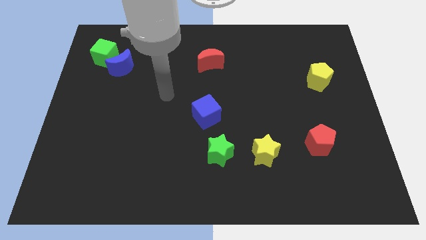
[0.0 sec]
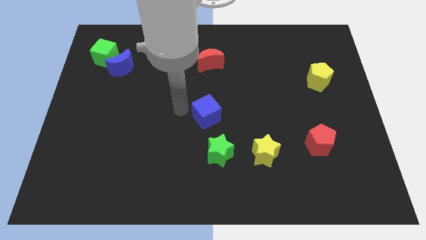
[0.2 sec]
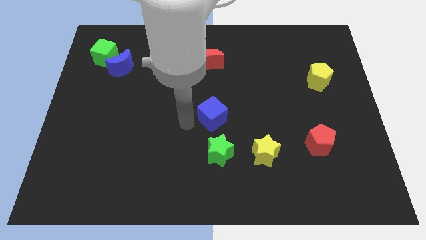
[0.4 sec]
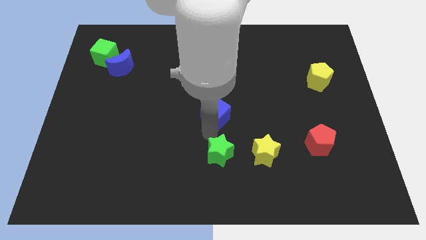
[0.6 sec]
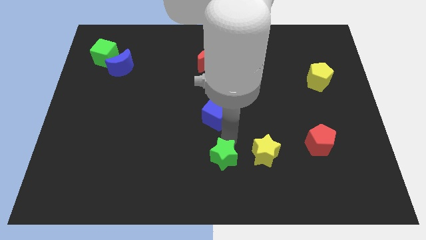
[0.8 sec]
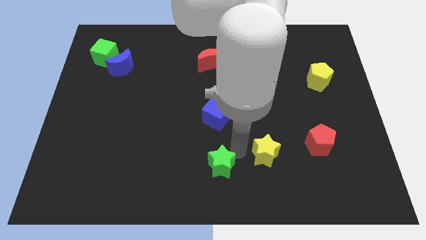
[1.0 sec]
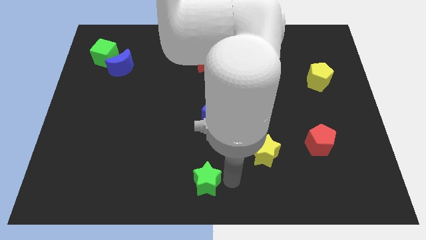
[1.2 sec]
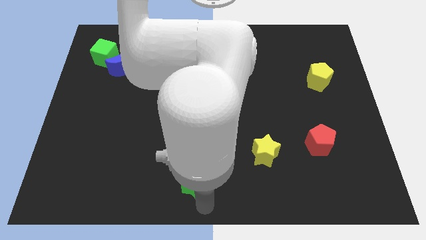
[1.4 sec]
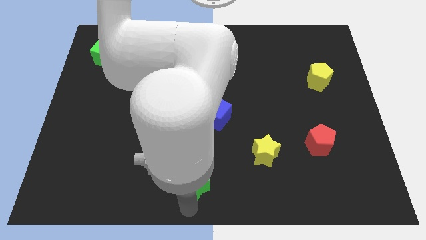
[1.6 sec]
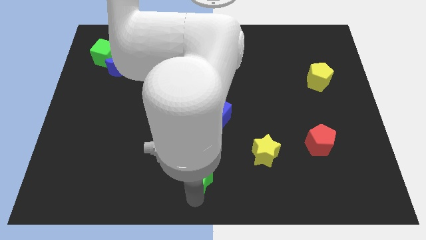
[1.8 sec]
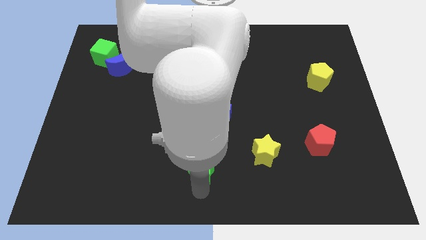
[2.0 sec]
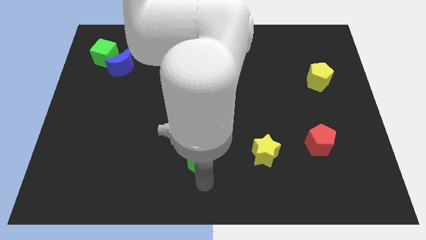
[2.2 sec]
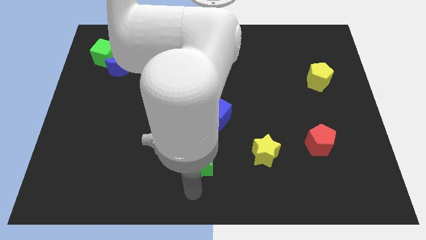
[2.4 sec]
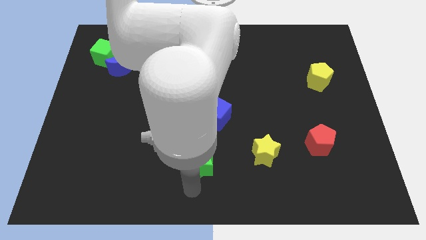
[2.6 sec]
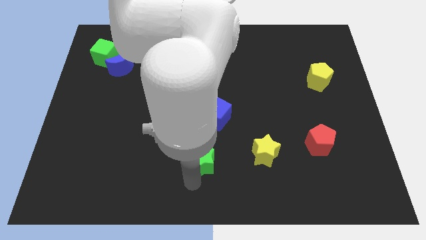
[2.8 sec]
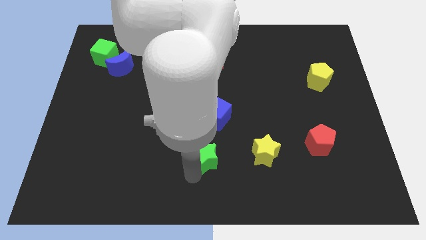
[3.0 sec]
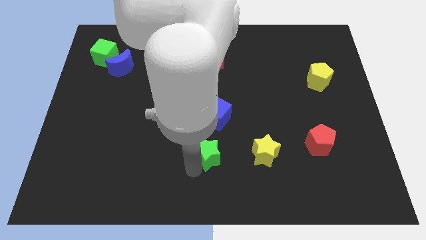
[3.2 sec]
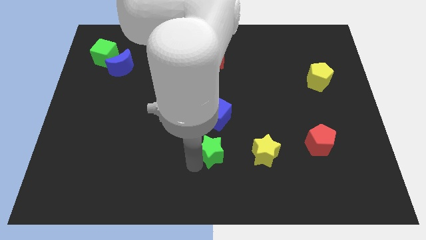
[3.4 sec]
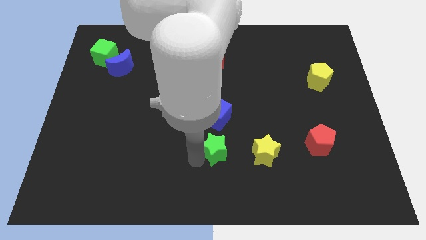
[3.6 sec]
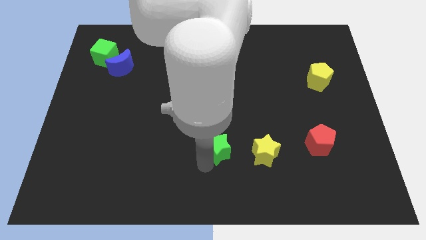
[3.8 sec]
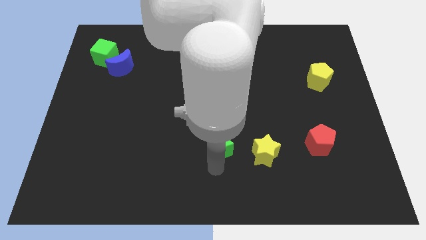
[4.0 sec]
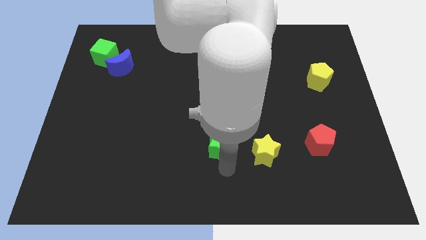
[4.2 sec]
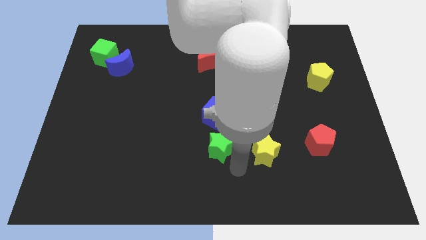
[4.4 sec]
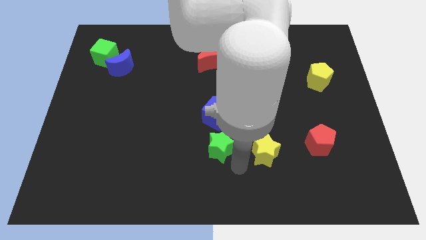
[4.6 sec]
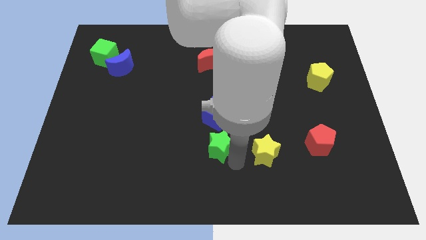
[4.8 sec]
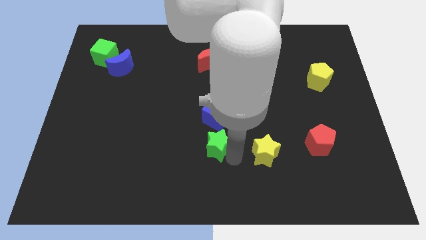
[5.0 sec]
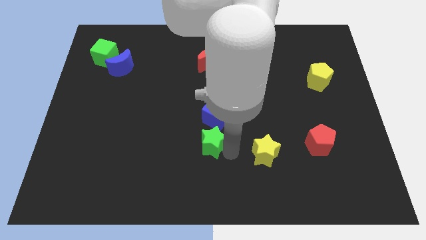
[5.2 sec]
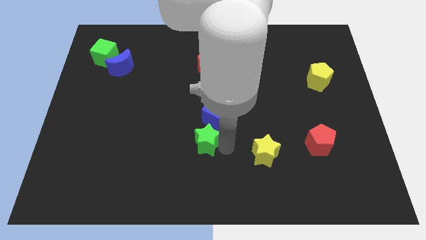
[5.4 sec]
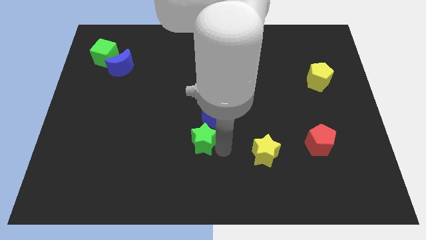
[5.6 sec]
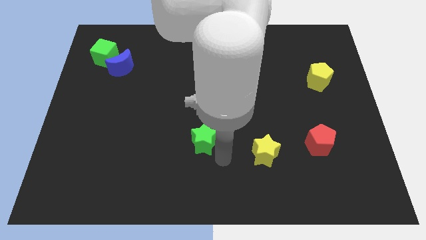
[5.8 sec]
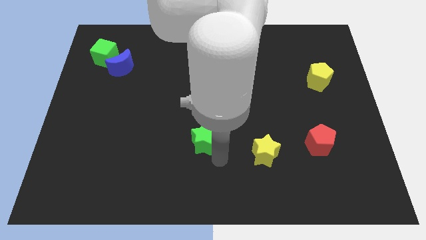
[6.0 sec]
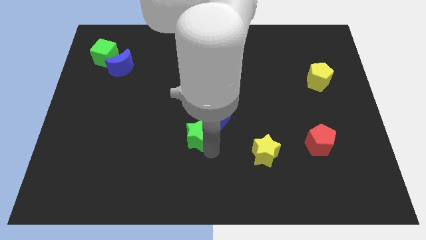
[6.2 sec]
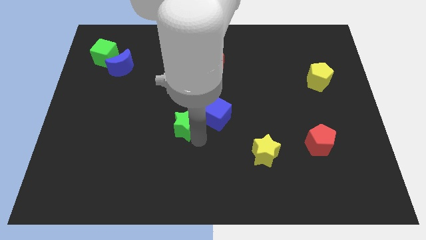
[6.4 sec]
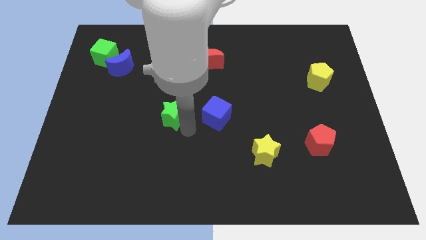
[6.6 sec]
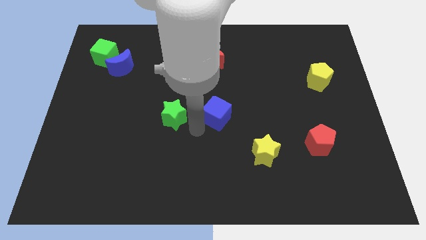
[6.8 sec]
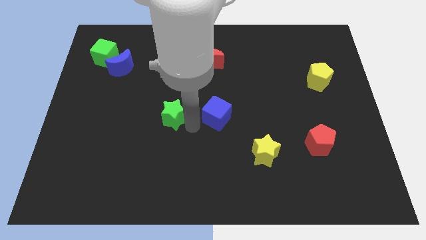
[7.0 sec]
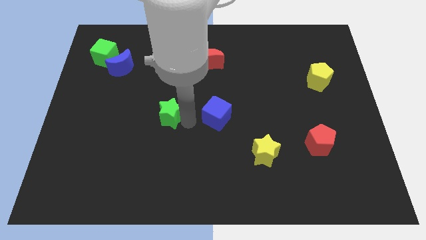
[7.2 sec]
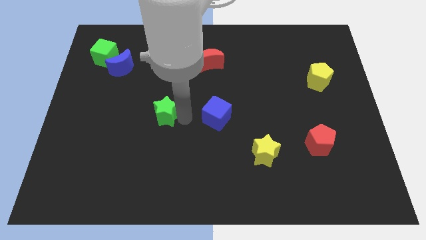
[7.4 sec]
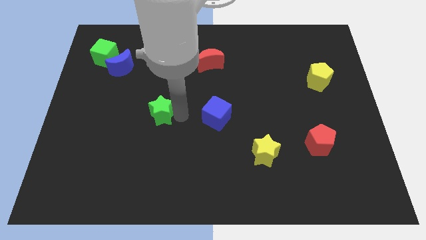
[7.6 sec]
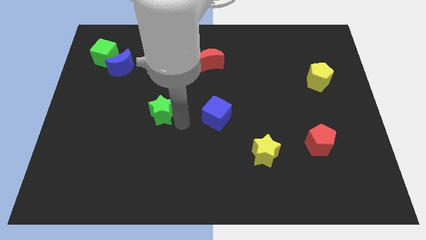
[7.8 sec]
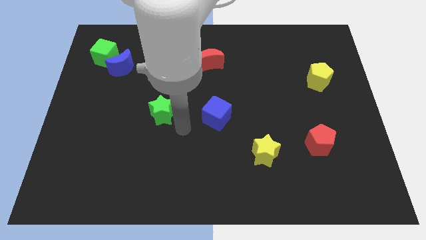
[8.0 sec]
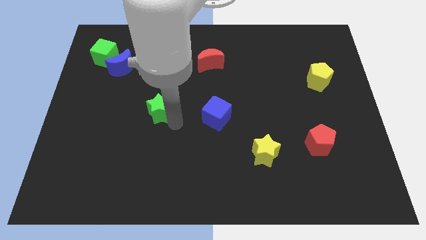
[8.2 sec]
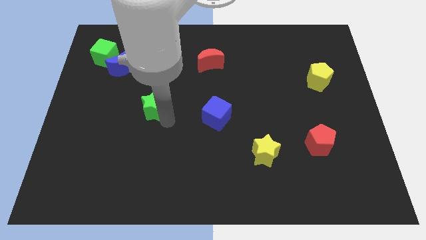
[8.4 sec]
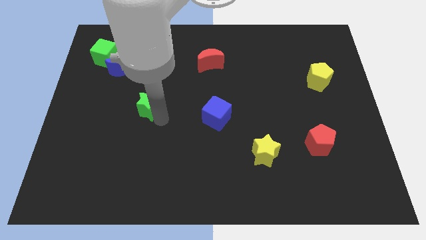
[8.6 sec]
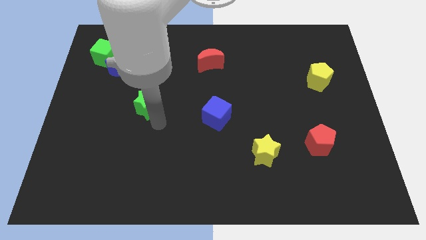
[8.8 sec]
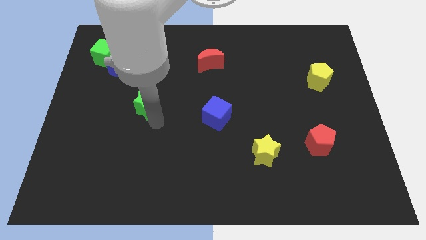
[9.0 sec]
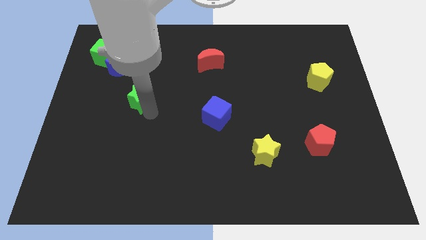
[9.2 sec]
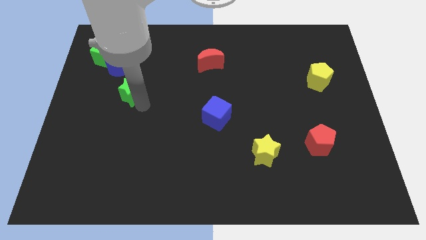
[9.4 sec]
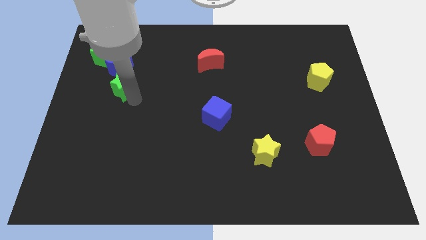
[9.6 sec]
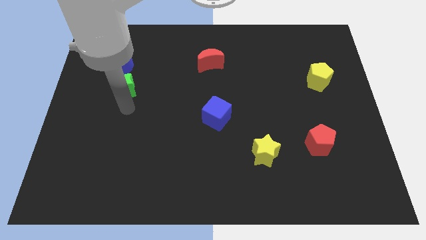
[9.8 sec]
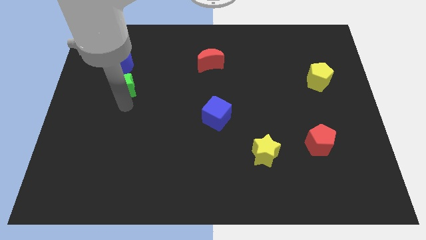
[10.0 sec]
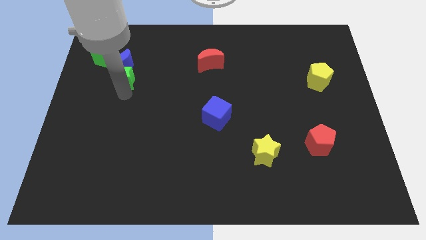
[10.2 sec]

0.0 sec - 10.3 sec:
put the green star close to the blue moon

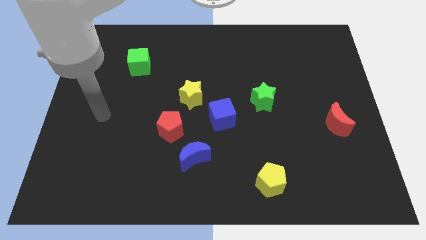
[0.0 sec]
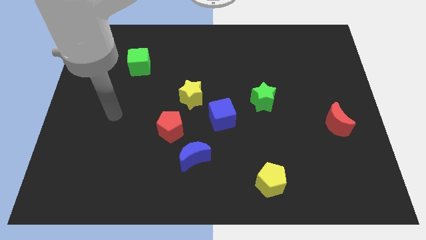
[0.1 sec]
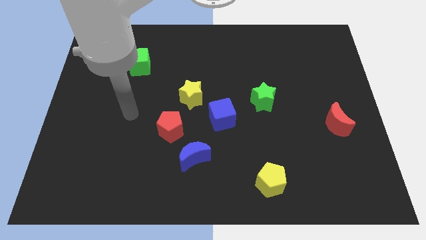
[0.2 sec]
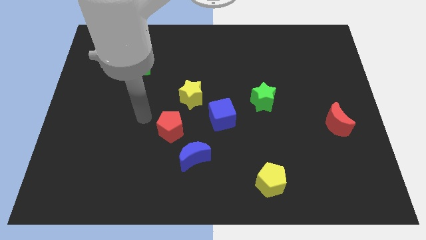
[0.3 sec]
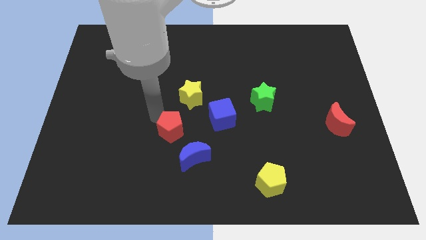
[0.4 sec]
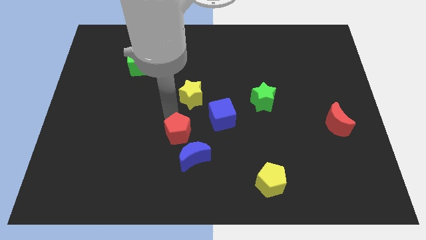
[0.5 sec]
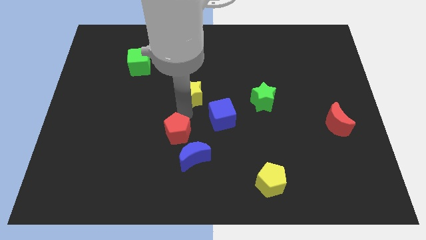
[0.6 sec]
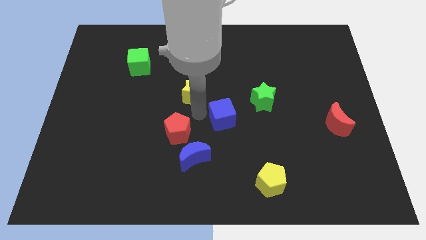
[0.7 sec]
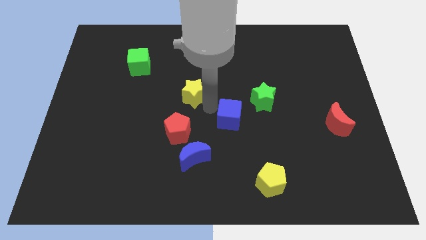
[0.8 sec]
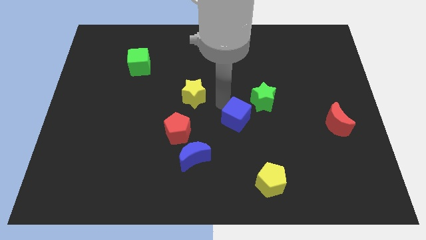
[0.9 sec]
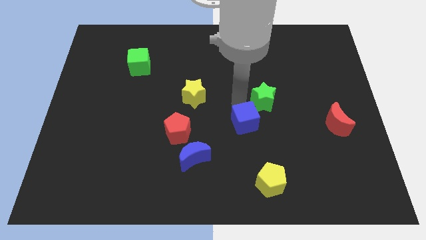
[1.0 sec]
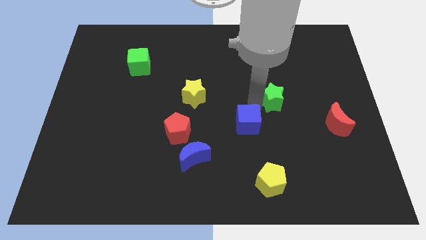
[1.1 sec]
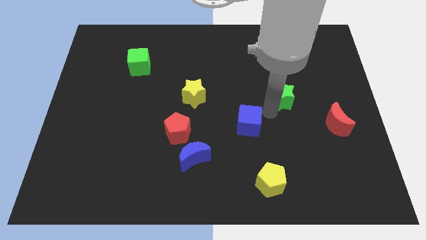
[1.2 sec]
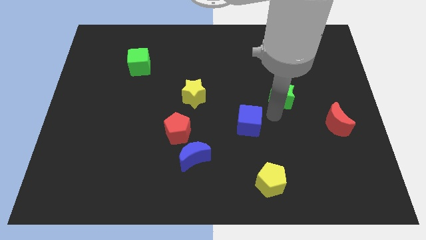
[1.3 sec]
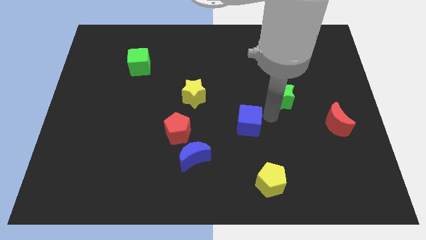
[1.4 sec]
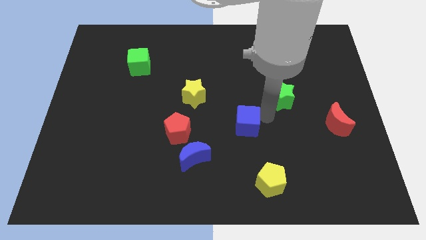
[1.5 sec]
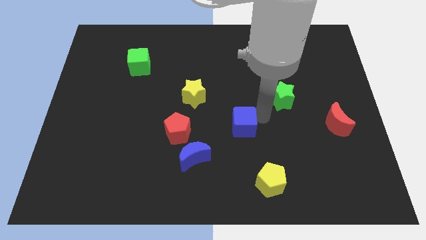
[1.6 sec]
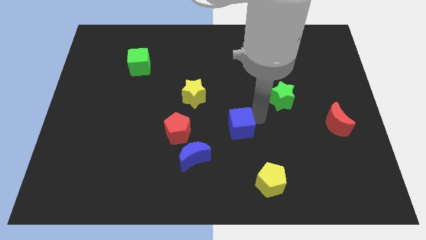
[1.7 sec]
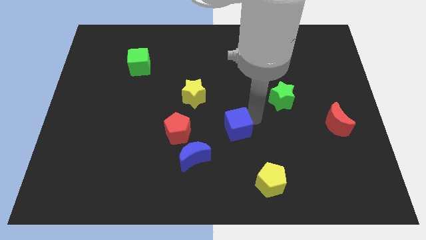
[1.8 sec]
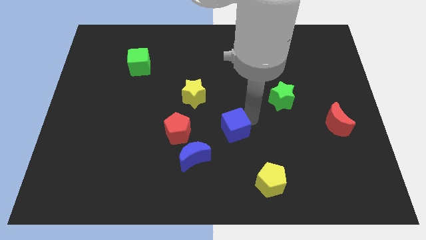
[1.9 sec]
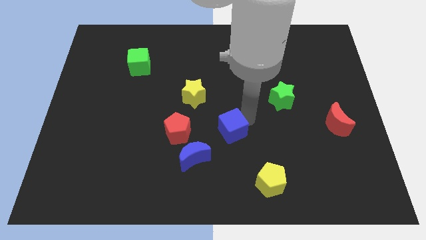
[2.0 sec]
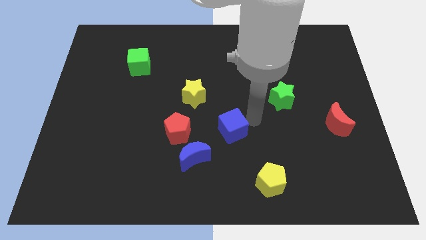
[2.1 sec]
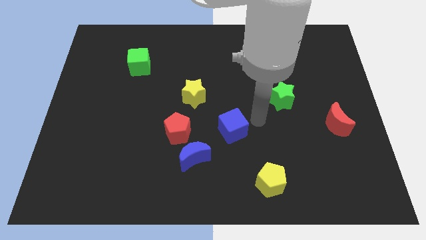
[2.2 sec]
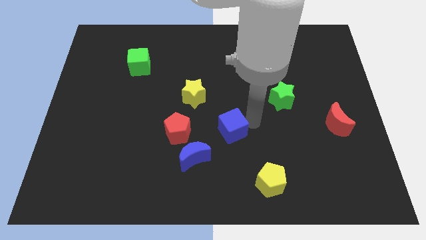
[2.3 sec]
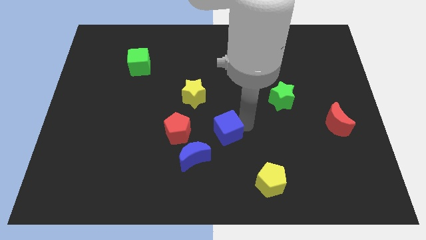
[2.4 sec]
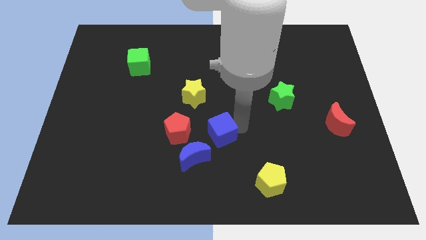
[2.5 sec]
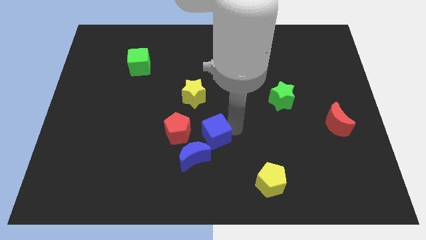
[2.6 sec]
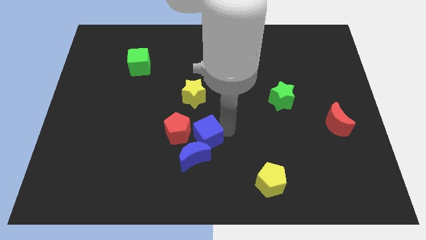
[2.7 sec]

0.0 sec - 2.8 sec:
push the blue cube close to the blue moon
